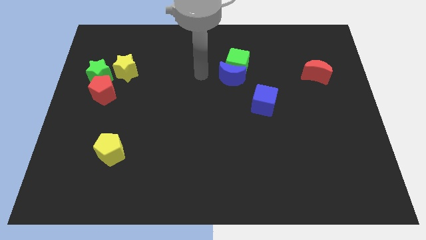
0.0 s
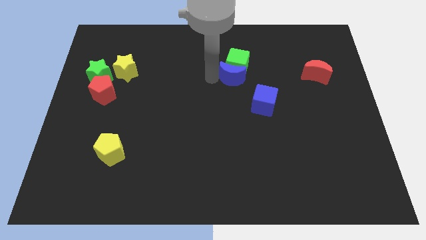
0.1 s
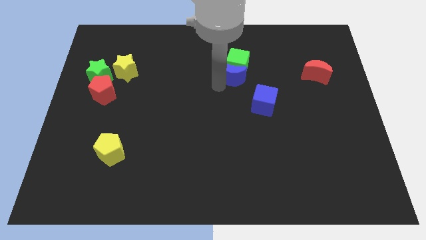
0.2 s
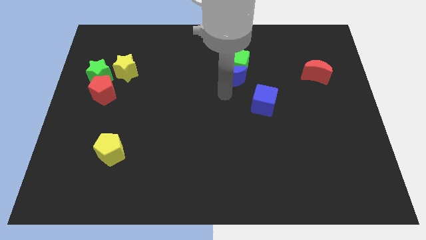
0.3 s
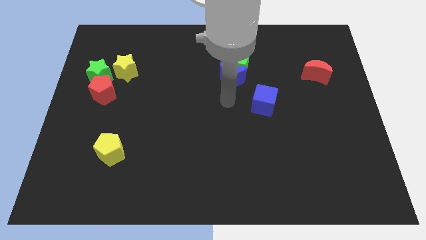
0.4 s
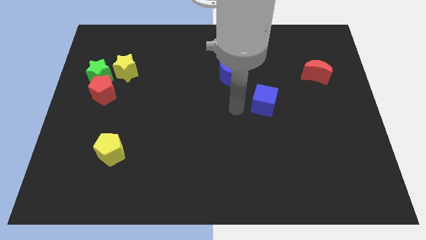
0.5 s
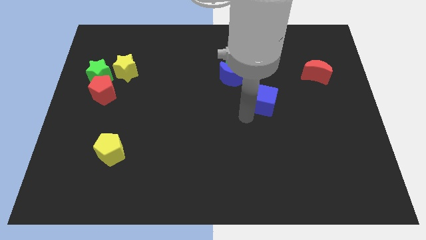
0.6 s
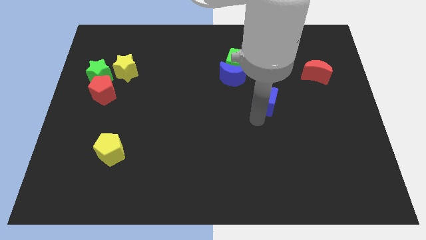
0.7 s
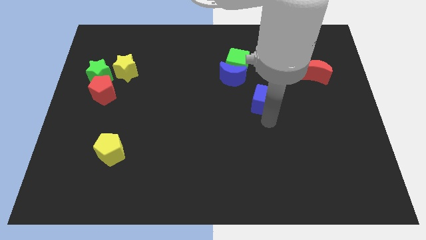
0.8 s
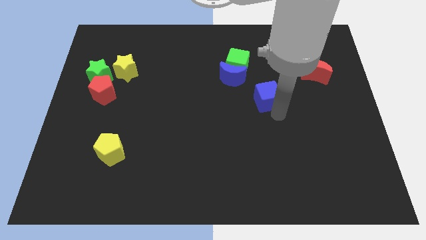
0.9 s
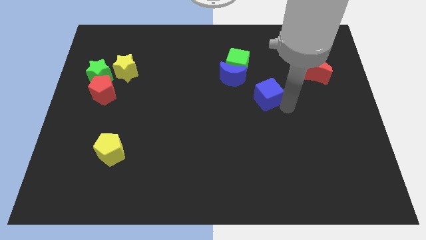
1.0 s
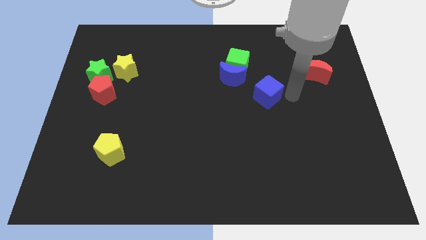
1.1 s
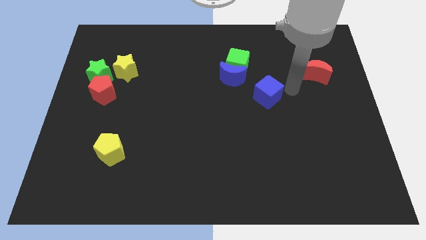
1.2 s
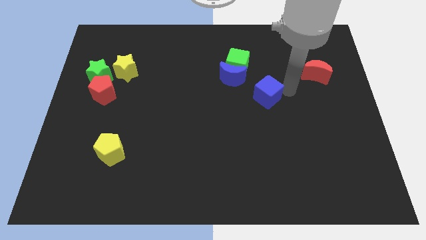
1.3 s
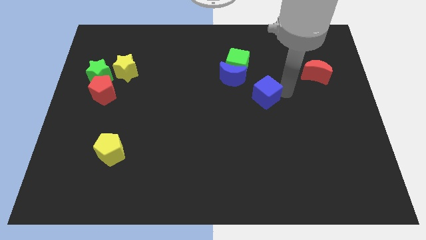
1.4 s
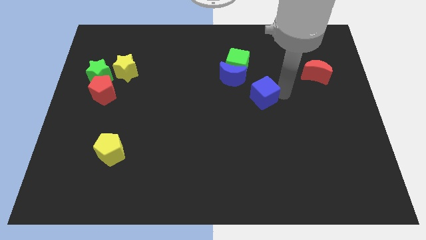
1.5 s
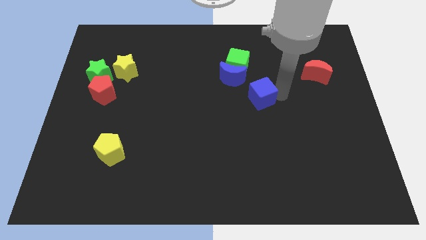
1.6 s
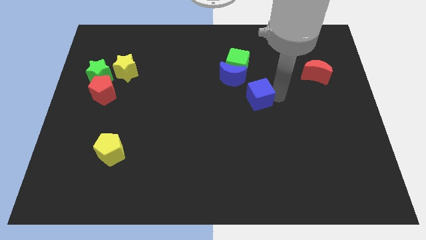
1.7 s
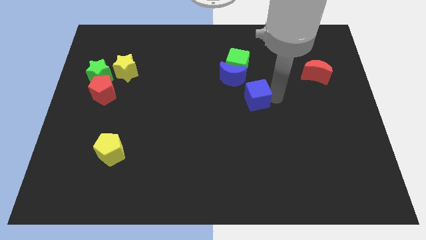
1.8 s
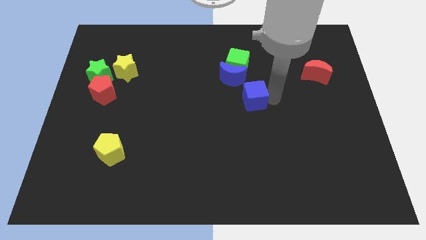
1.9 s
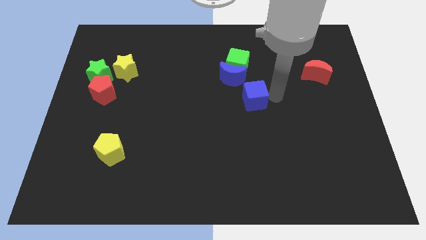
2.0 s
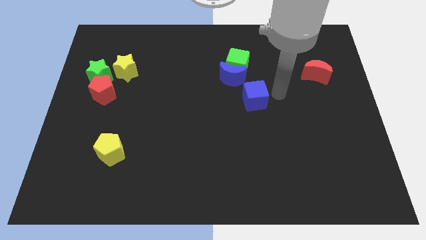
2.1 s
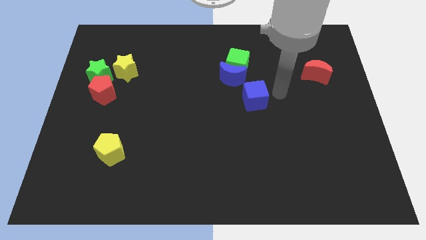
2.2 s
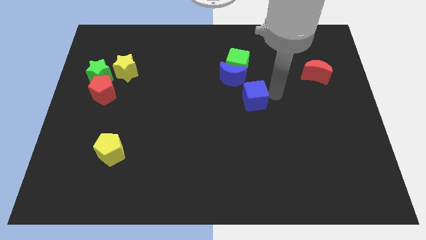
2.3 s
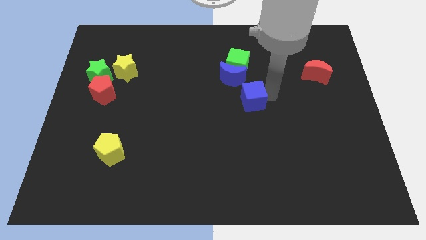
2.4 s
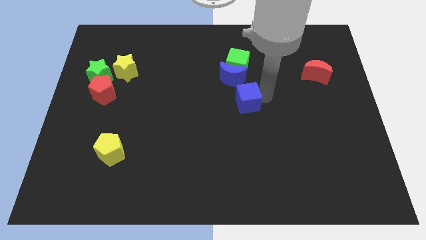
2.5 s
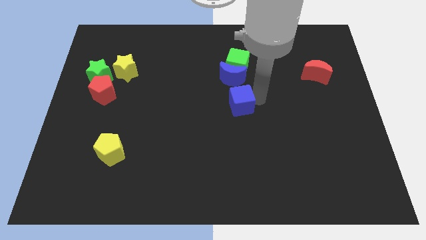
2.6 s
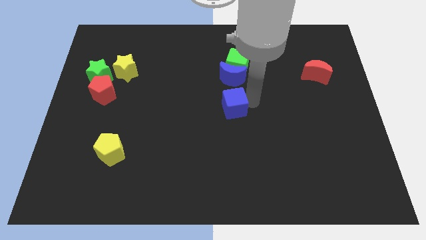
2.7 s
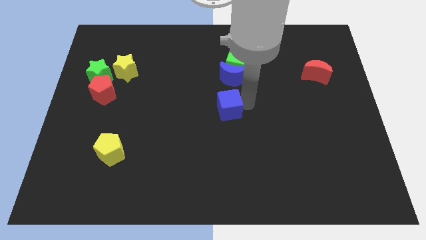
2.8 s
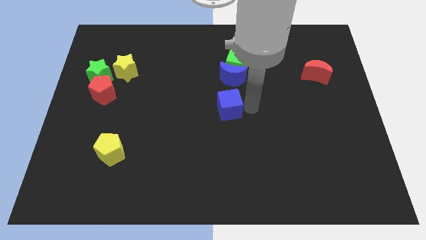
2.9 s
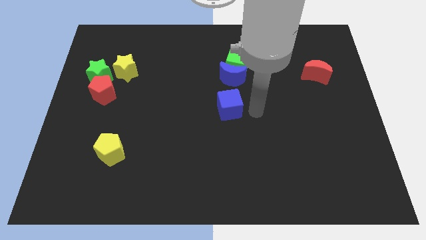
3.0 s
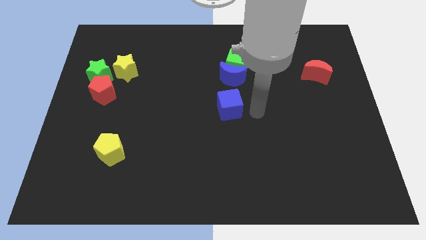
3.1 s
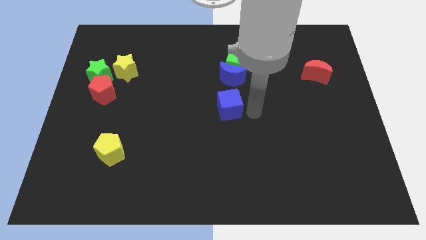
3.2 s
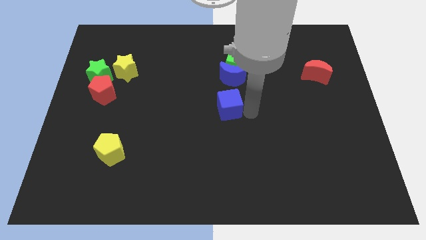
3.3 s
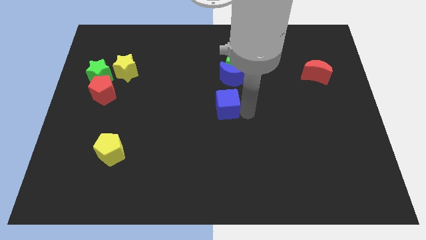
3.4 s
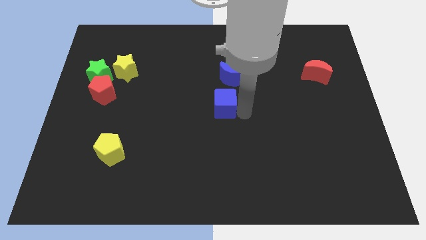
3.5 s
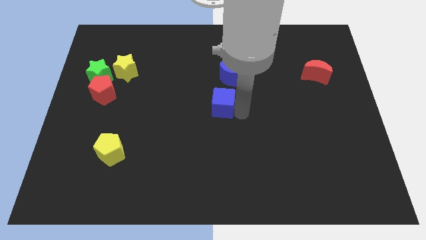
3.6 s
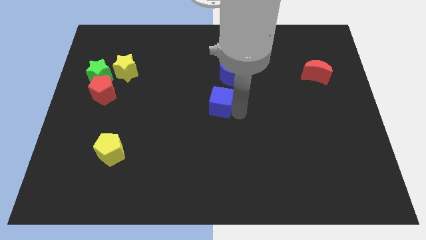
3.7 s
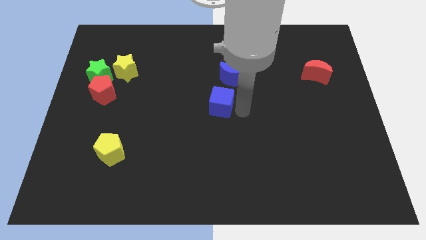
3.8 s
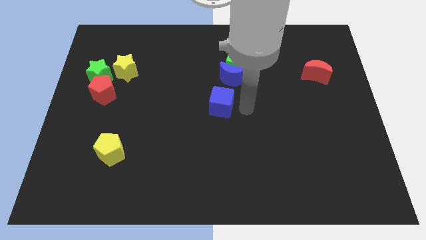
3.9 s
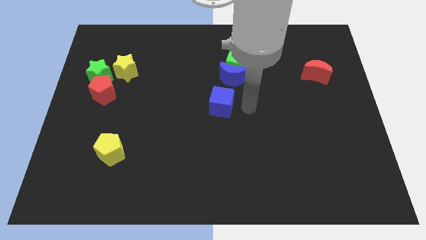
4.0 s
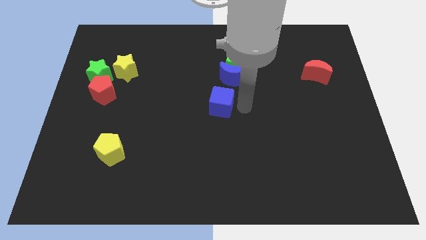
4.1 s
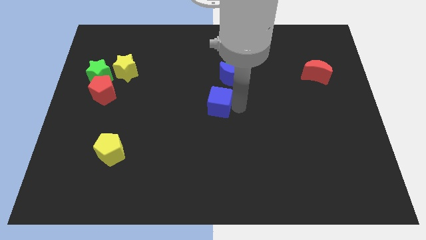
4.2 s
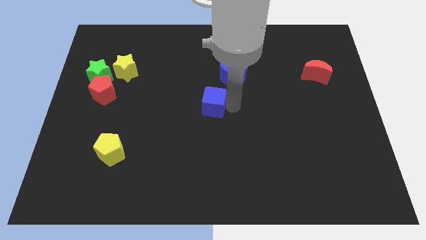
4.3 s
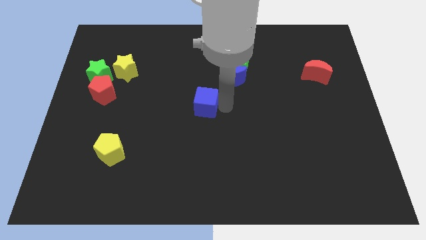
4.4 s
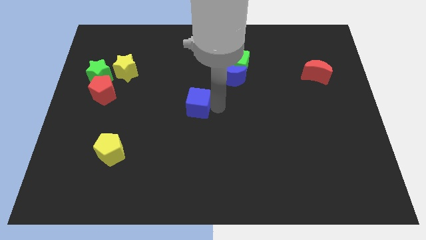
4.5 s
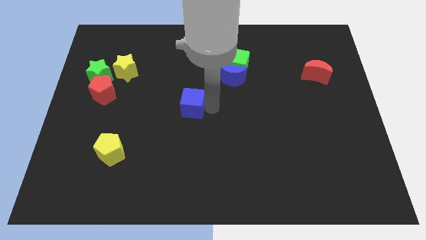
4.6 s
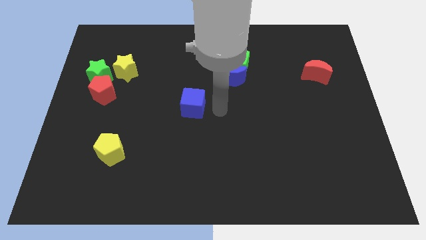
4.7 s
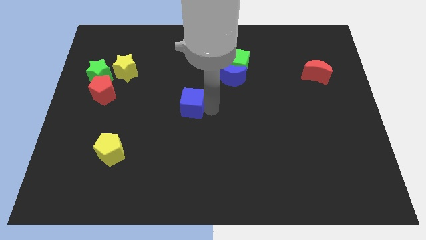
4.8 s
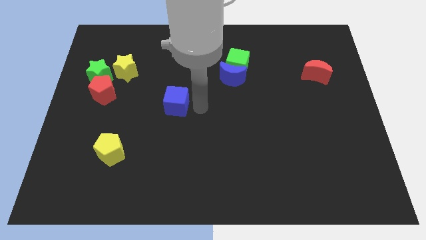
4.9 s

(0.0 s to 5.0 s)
push the blue cube to the left

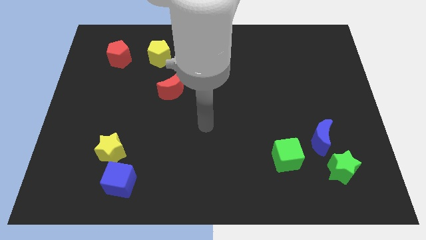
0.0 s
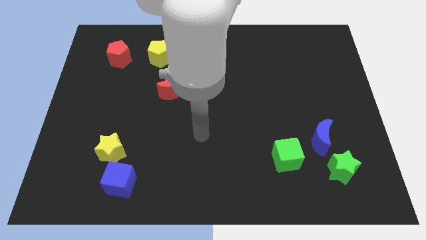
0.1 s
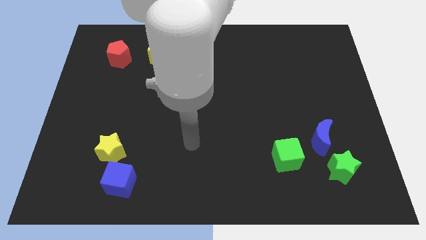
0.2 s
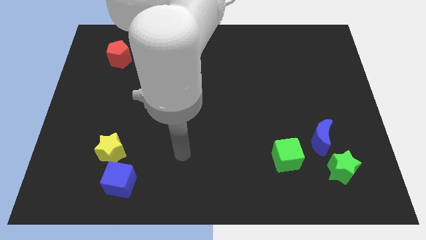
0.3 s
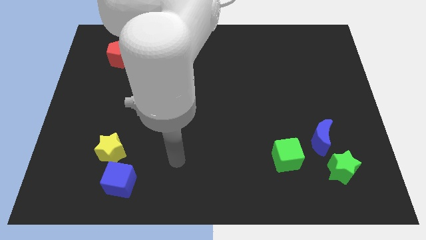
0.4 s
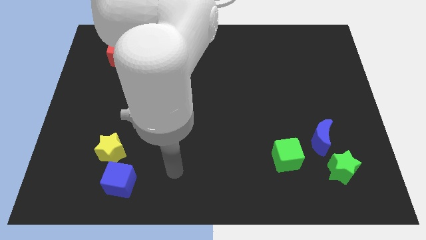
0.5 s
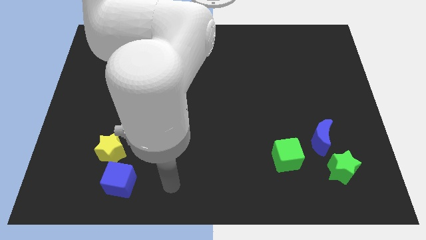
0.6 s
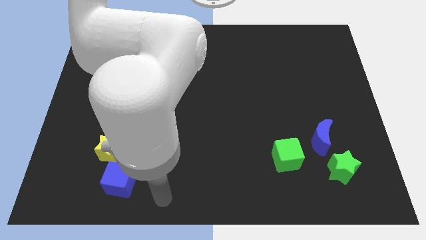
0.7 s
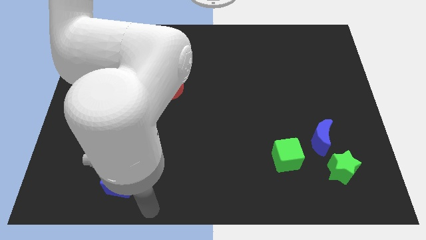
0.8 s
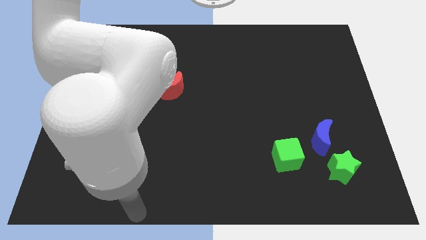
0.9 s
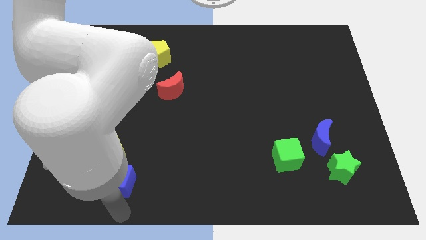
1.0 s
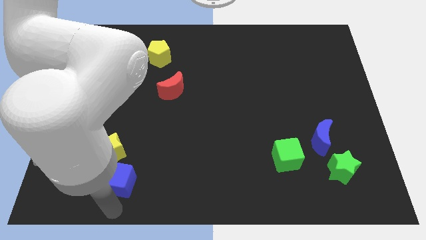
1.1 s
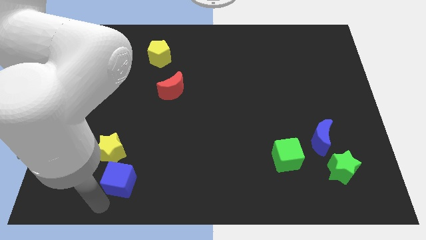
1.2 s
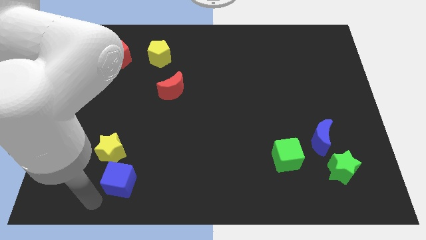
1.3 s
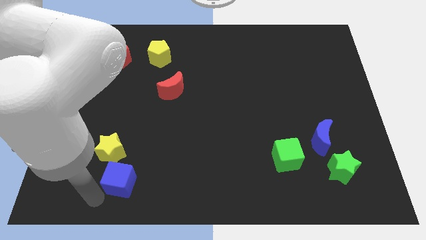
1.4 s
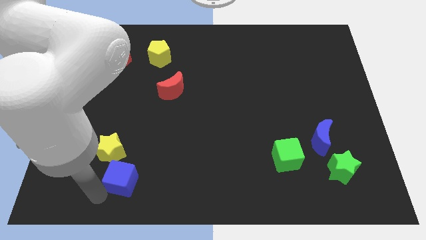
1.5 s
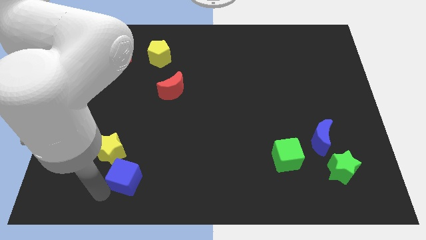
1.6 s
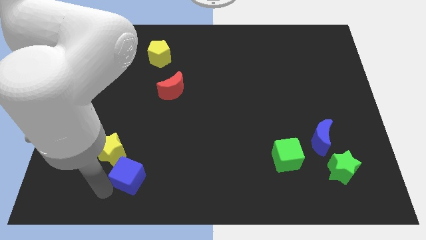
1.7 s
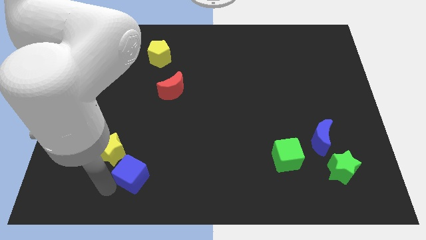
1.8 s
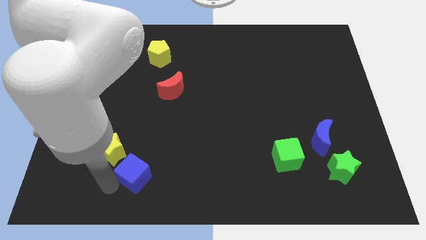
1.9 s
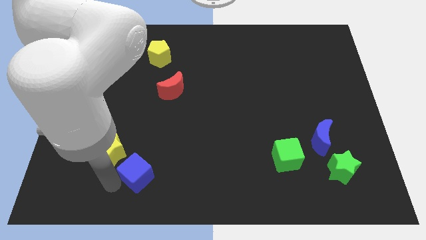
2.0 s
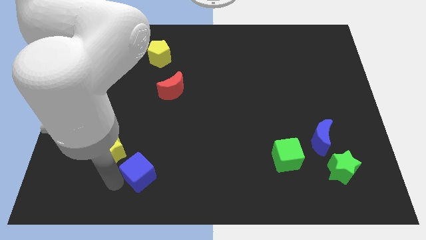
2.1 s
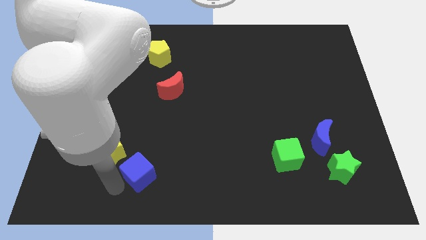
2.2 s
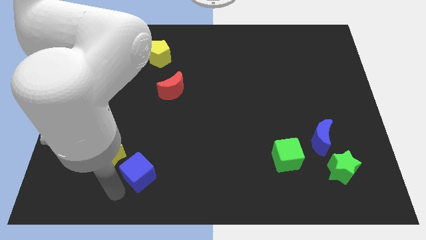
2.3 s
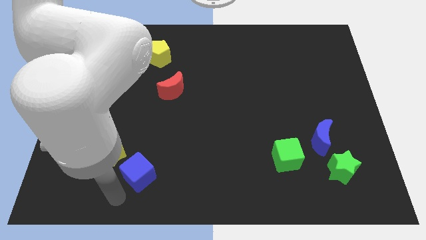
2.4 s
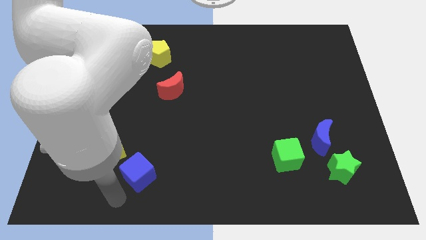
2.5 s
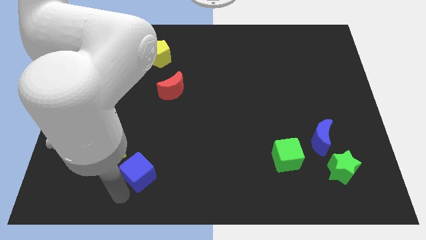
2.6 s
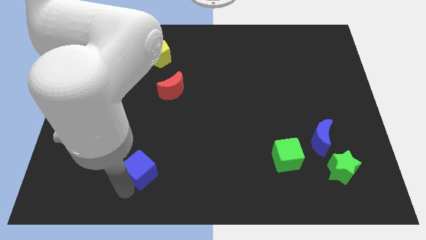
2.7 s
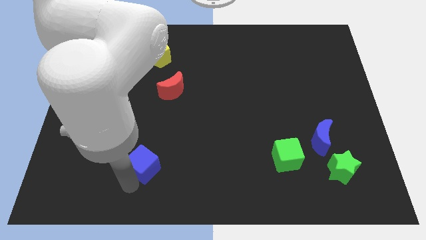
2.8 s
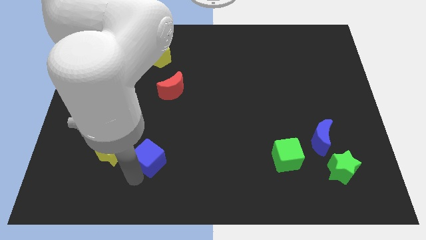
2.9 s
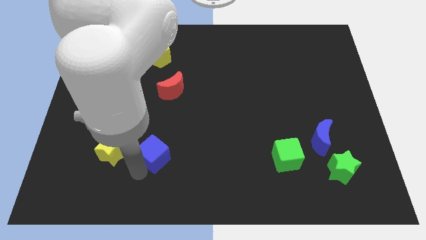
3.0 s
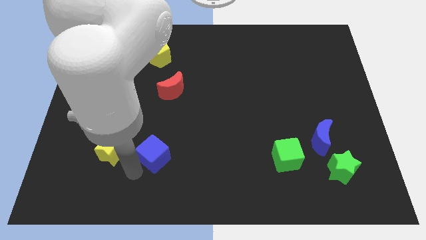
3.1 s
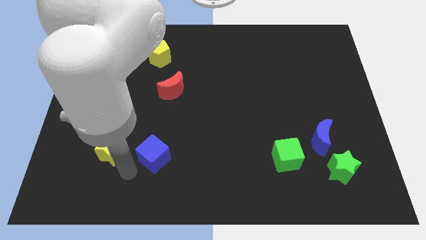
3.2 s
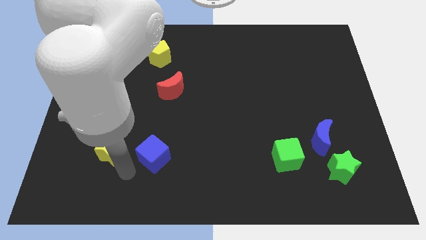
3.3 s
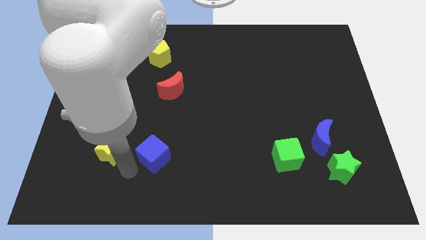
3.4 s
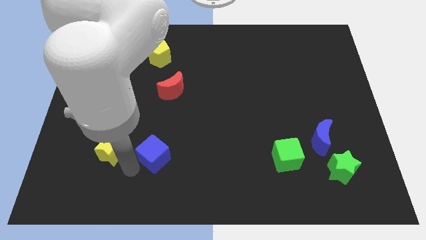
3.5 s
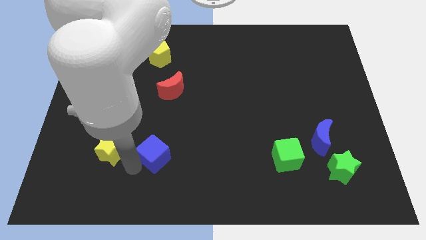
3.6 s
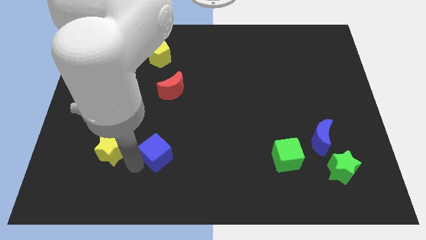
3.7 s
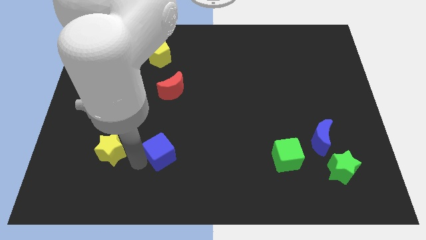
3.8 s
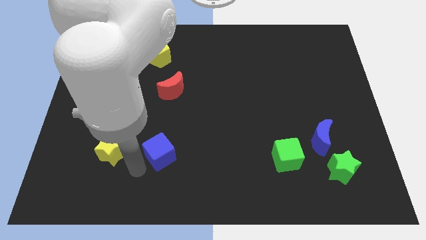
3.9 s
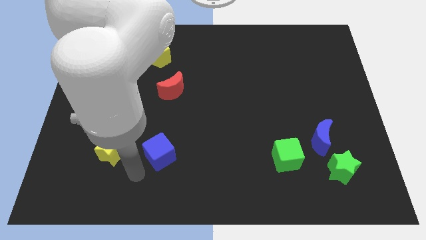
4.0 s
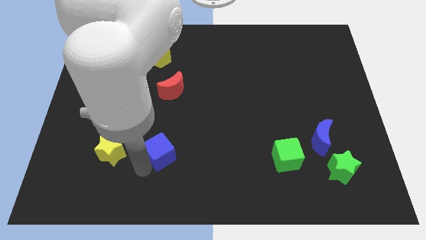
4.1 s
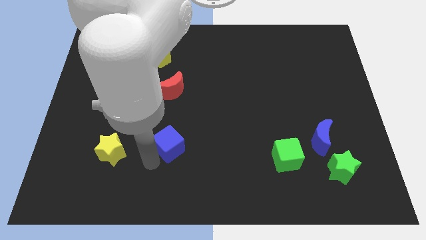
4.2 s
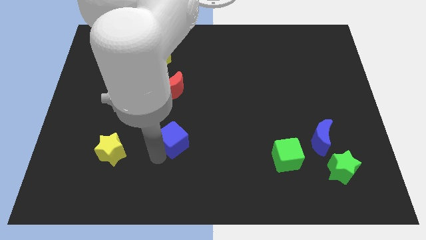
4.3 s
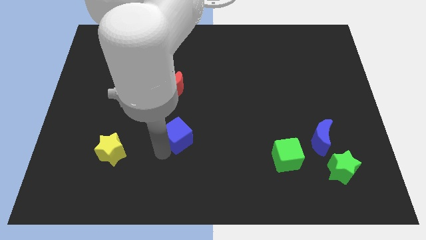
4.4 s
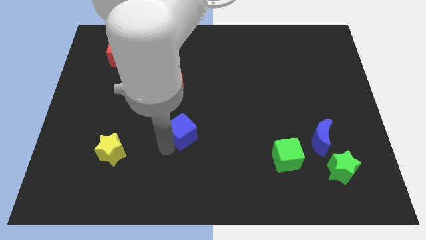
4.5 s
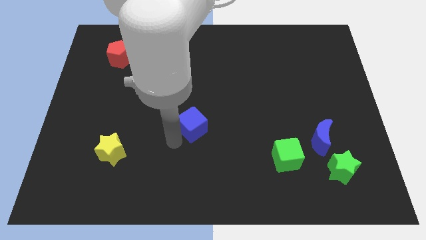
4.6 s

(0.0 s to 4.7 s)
move the blue cube up and then to the right
